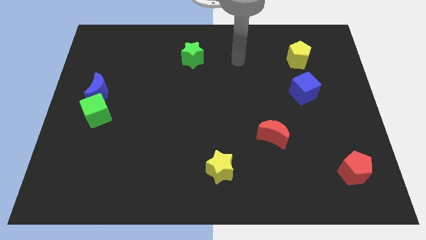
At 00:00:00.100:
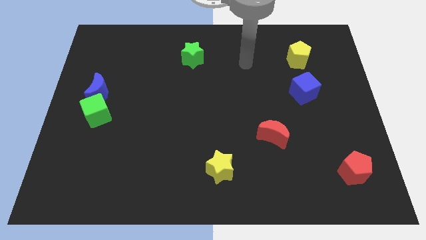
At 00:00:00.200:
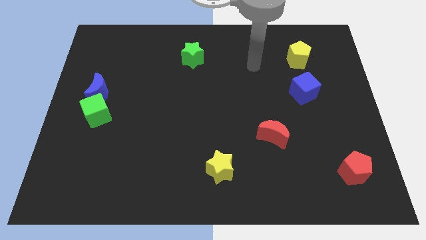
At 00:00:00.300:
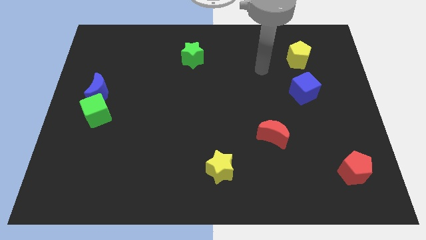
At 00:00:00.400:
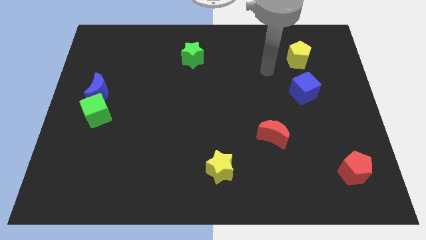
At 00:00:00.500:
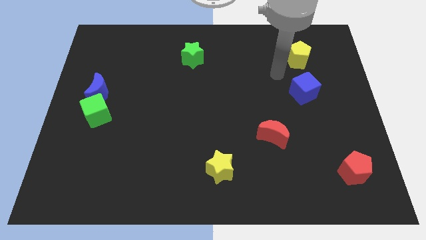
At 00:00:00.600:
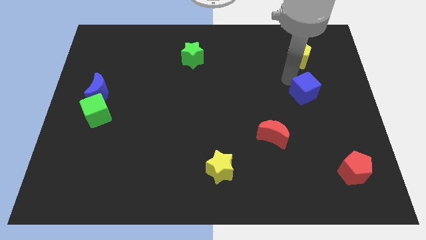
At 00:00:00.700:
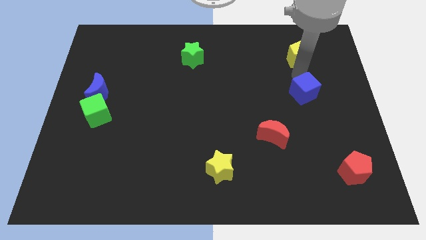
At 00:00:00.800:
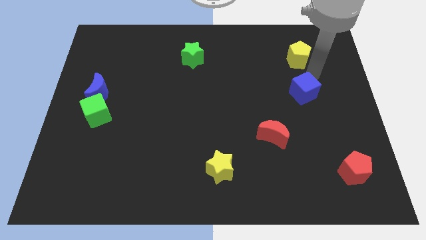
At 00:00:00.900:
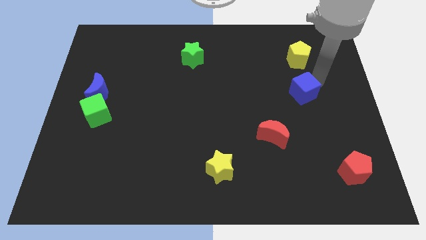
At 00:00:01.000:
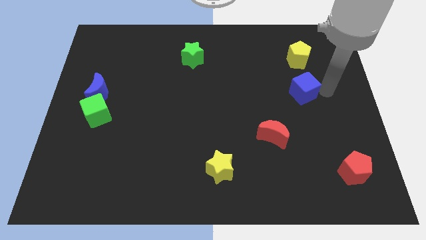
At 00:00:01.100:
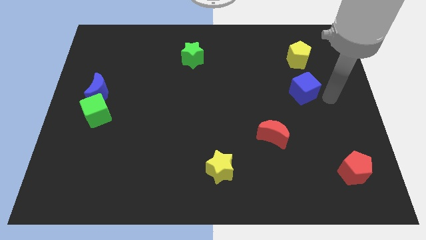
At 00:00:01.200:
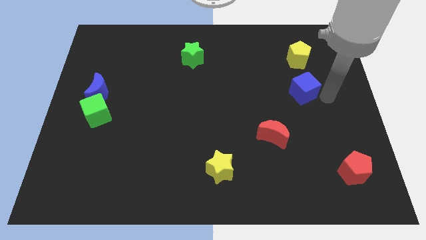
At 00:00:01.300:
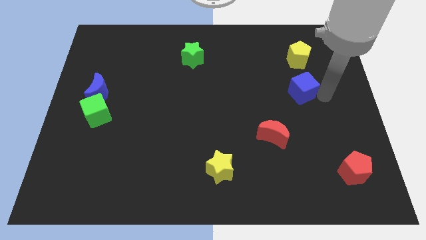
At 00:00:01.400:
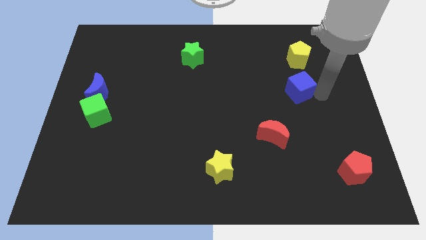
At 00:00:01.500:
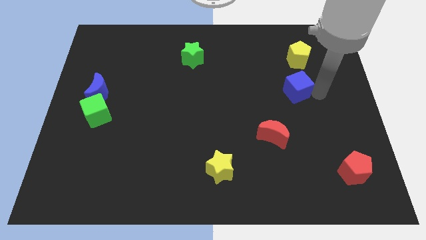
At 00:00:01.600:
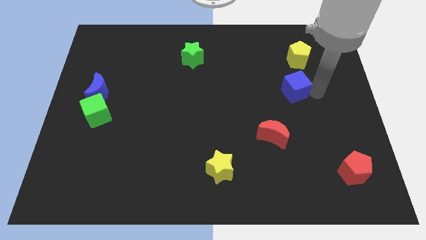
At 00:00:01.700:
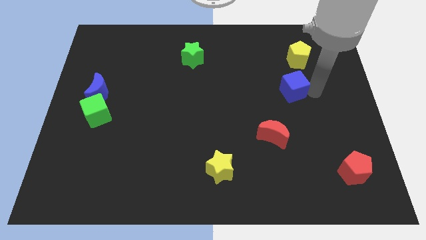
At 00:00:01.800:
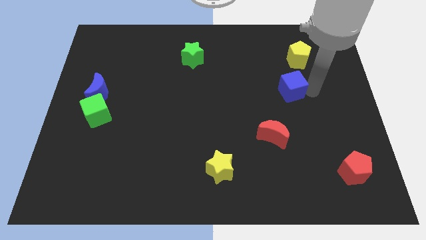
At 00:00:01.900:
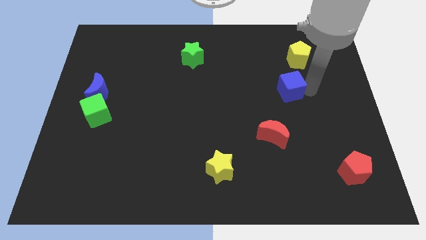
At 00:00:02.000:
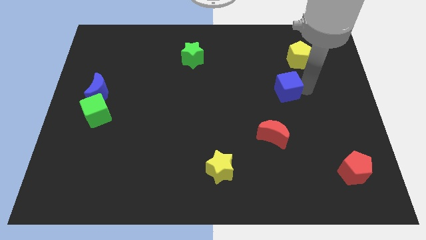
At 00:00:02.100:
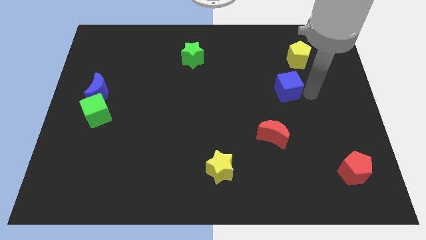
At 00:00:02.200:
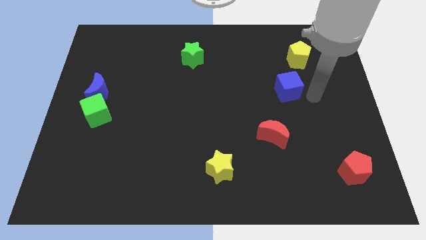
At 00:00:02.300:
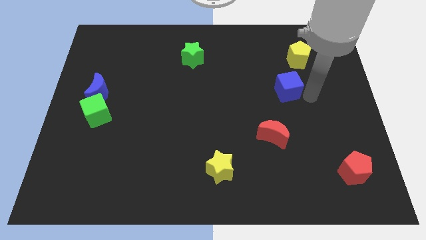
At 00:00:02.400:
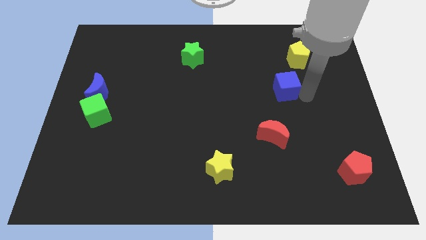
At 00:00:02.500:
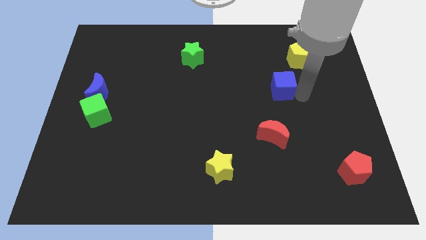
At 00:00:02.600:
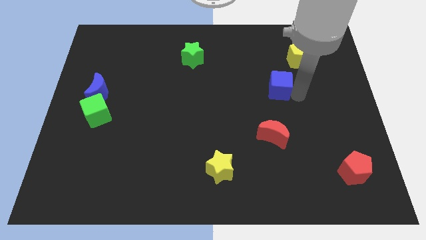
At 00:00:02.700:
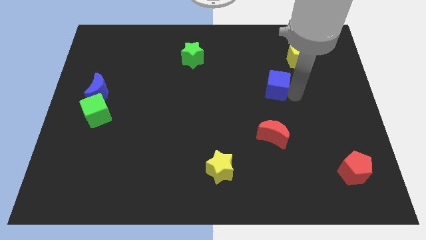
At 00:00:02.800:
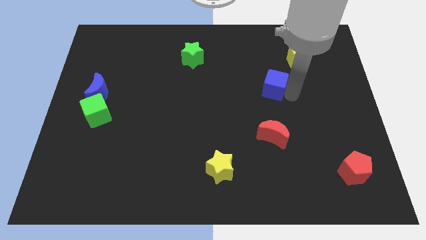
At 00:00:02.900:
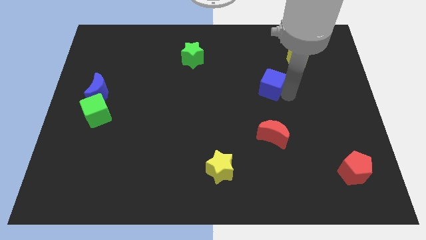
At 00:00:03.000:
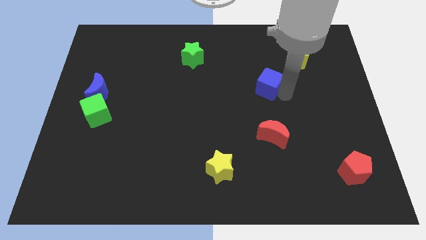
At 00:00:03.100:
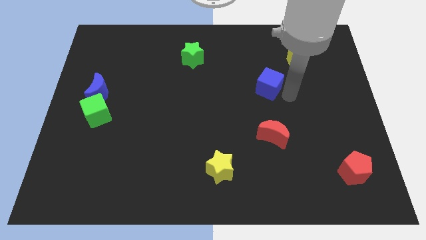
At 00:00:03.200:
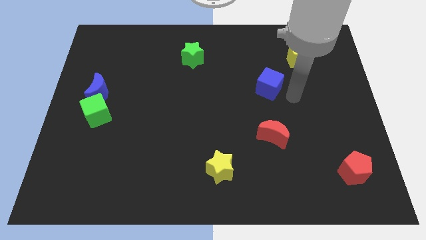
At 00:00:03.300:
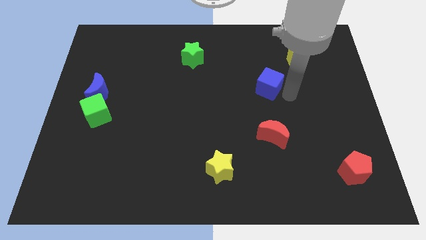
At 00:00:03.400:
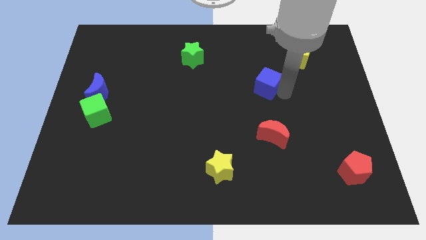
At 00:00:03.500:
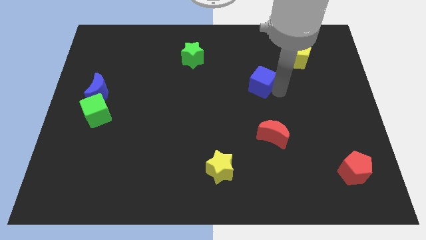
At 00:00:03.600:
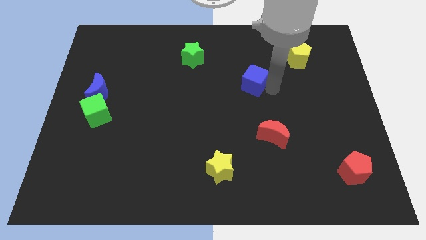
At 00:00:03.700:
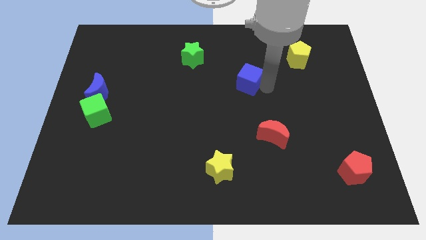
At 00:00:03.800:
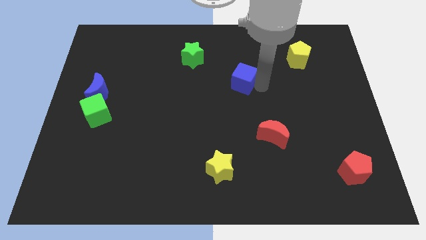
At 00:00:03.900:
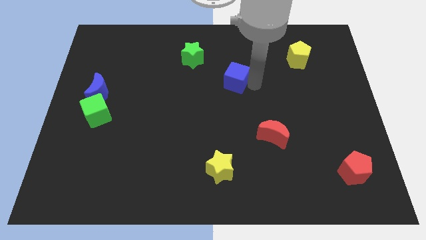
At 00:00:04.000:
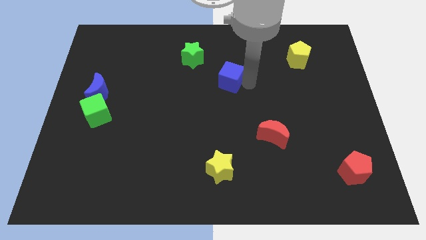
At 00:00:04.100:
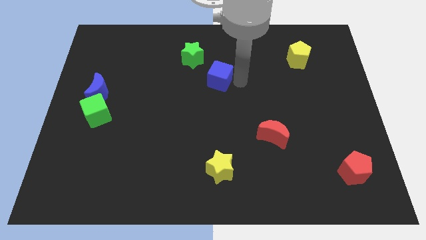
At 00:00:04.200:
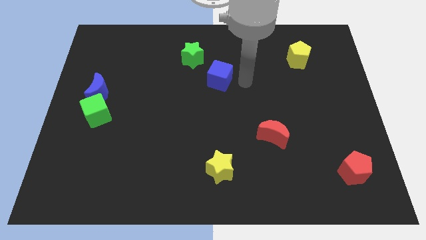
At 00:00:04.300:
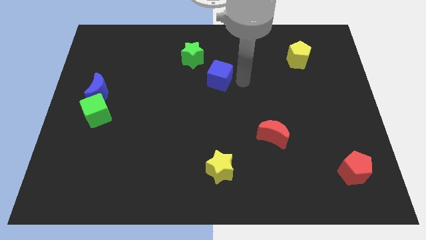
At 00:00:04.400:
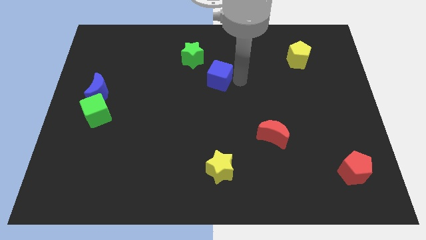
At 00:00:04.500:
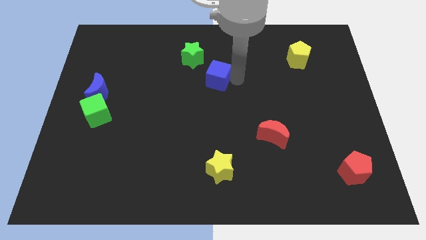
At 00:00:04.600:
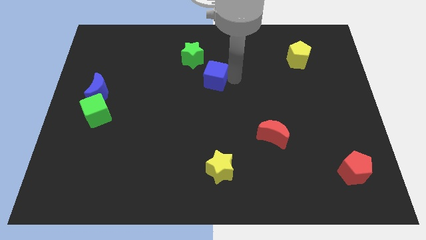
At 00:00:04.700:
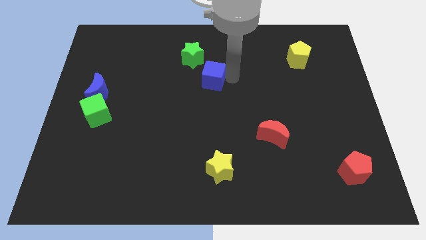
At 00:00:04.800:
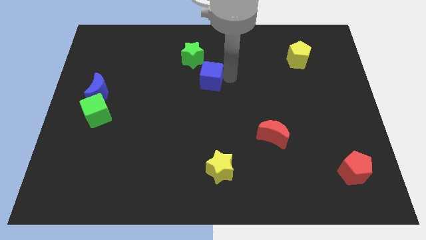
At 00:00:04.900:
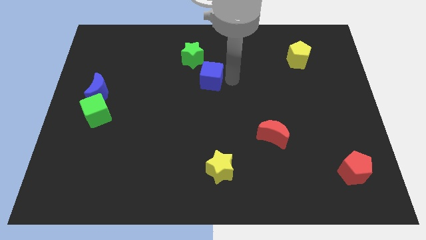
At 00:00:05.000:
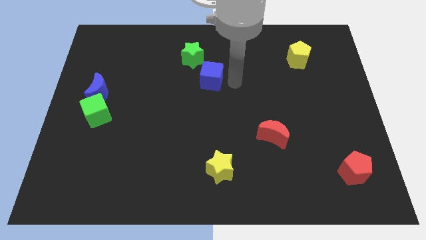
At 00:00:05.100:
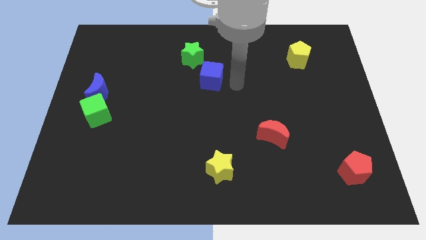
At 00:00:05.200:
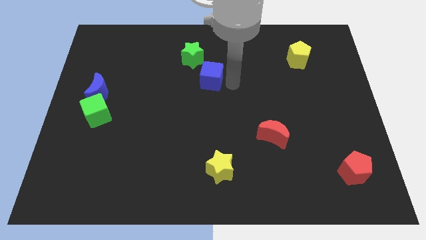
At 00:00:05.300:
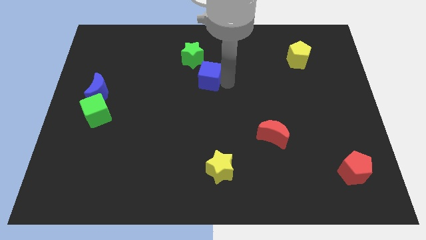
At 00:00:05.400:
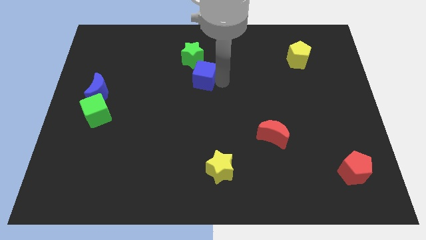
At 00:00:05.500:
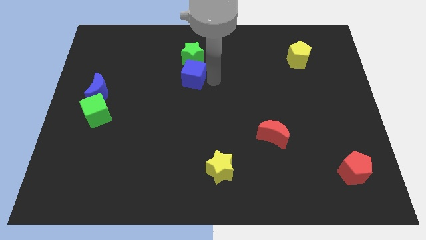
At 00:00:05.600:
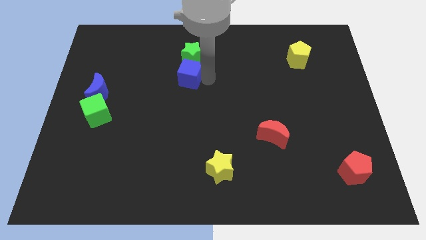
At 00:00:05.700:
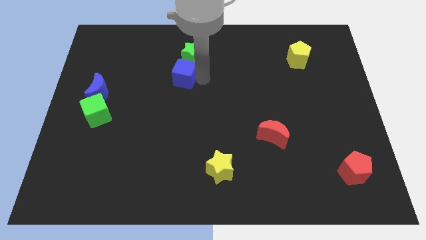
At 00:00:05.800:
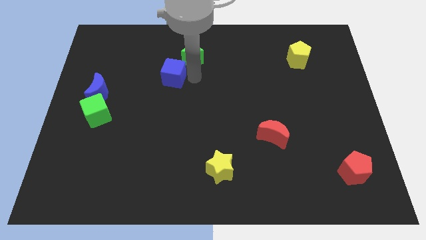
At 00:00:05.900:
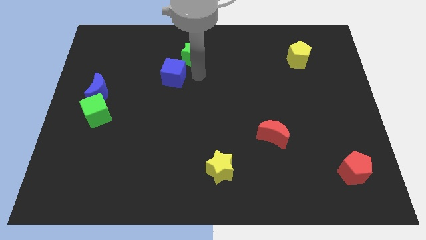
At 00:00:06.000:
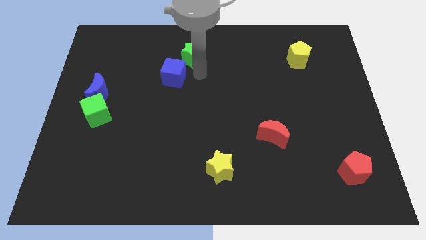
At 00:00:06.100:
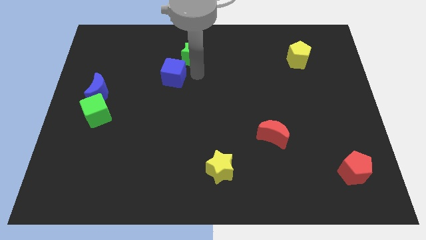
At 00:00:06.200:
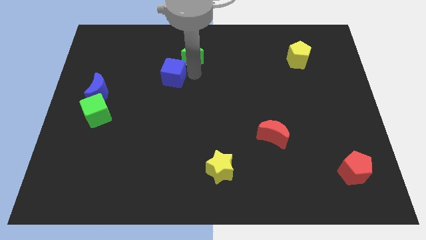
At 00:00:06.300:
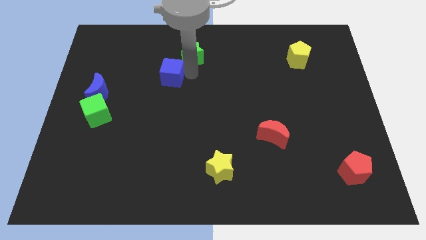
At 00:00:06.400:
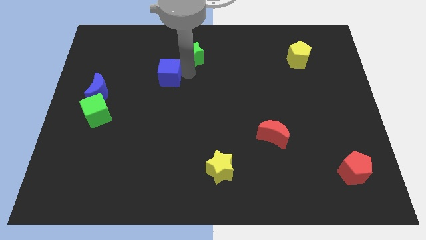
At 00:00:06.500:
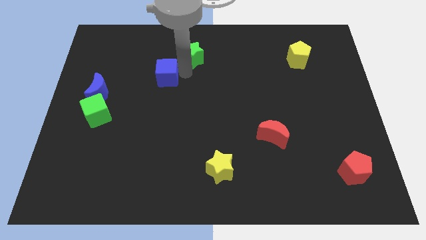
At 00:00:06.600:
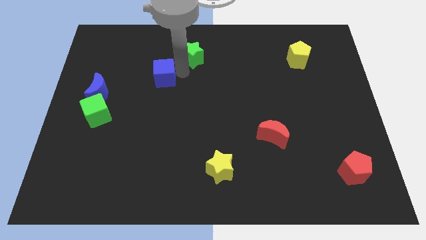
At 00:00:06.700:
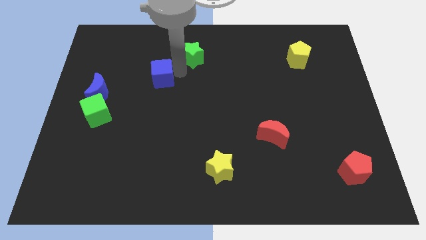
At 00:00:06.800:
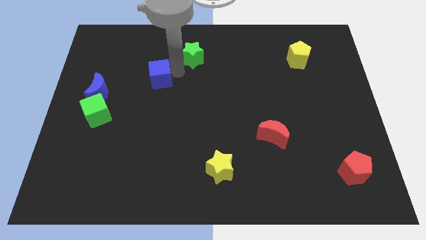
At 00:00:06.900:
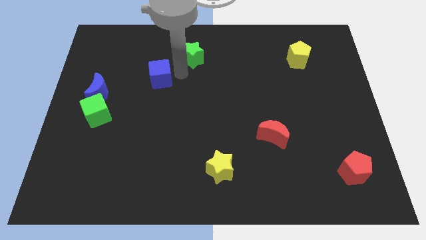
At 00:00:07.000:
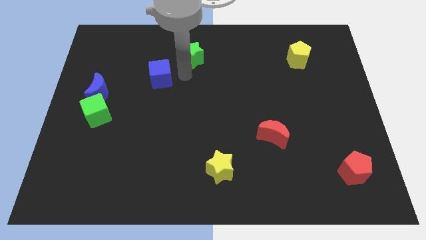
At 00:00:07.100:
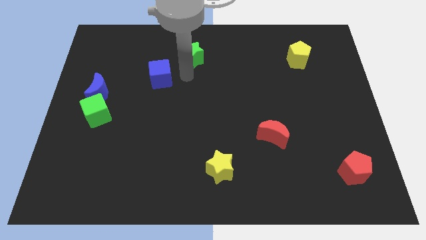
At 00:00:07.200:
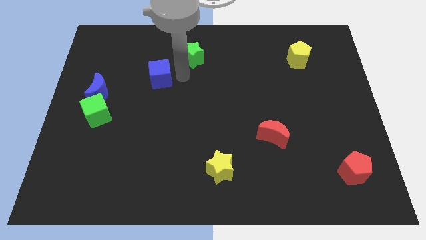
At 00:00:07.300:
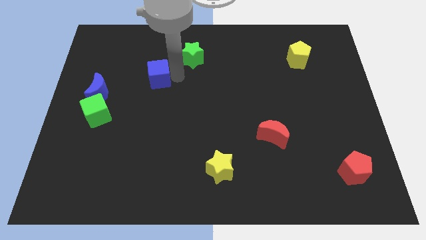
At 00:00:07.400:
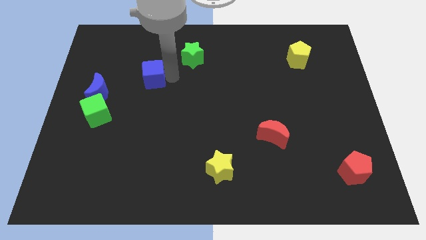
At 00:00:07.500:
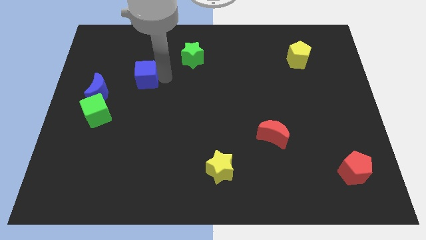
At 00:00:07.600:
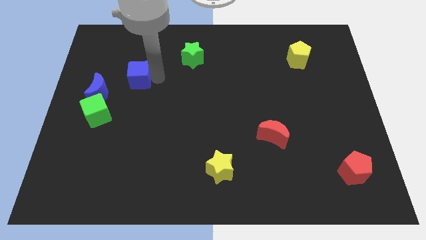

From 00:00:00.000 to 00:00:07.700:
push the blue cube to the top right of the blue moon

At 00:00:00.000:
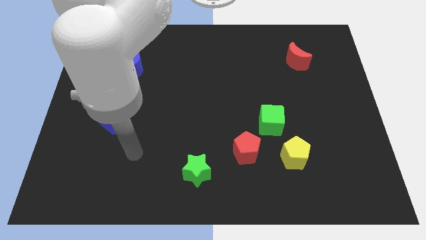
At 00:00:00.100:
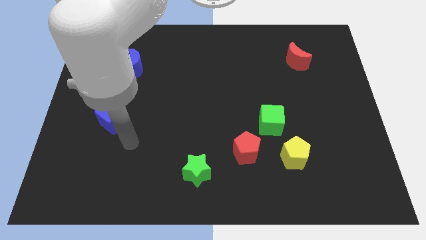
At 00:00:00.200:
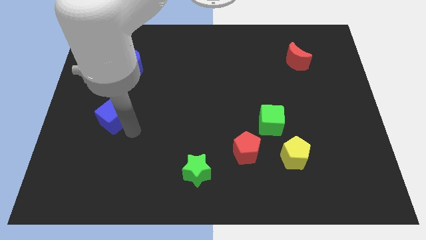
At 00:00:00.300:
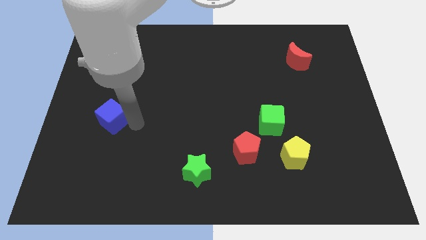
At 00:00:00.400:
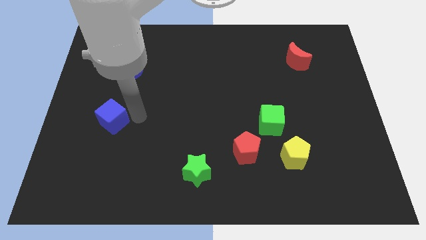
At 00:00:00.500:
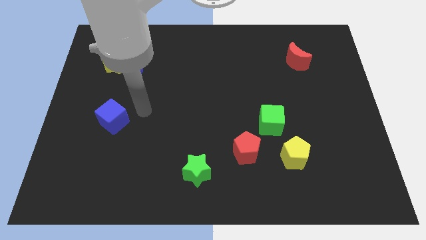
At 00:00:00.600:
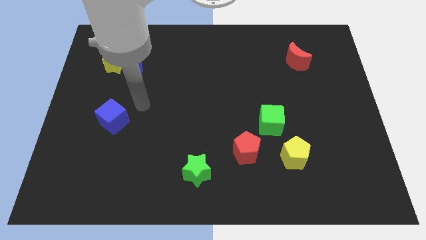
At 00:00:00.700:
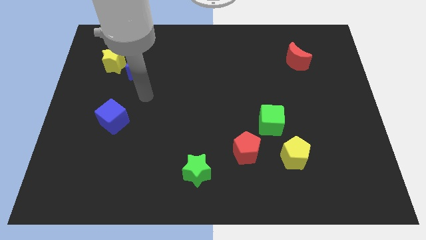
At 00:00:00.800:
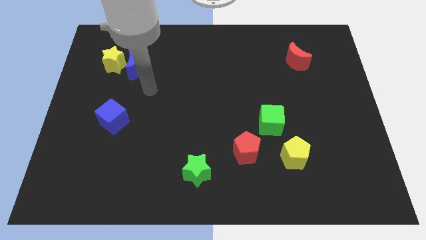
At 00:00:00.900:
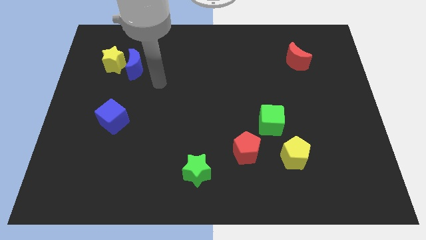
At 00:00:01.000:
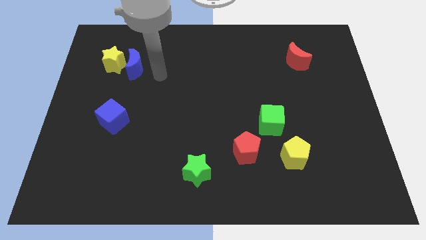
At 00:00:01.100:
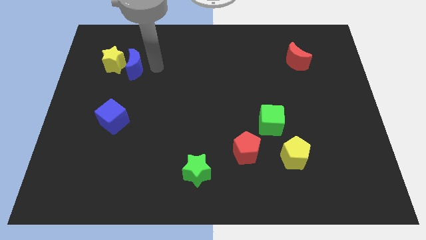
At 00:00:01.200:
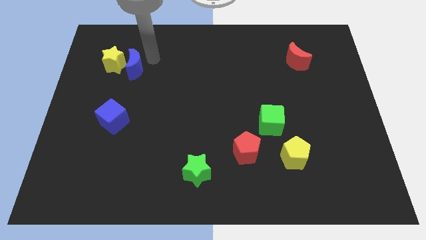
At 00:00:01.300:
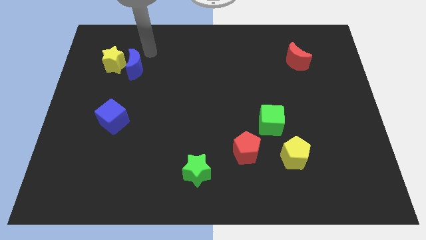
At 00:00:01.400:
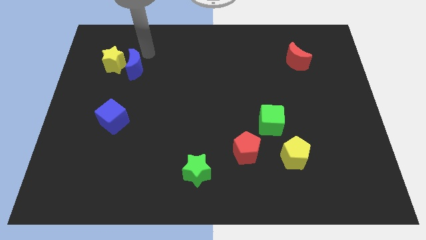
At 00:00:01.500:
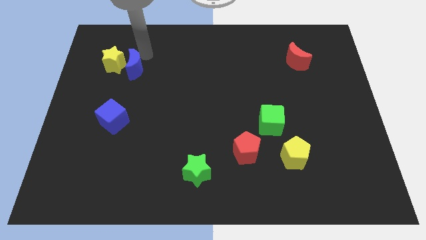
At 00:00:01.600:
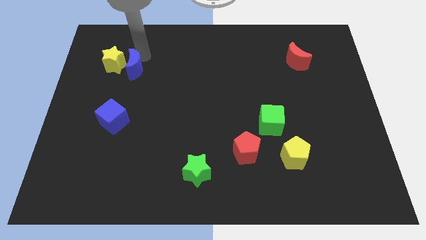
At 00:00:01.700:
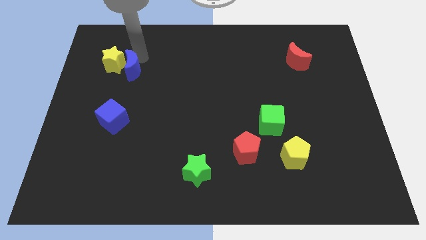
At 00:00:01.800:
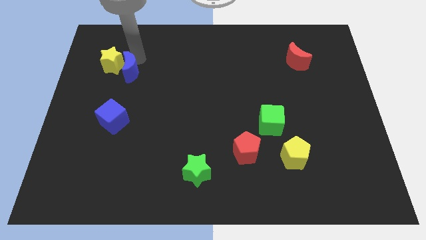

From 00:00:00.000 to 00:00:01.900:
slide the blue moon to the top side of the blue cube
